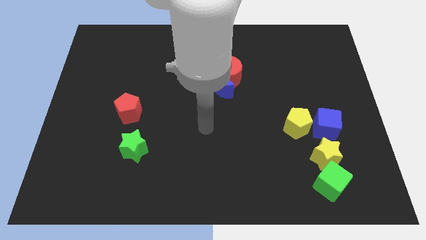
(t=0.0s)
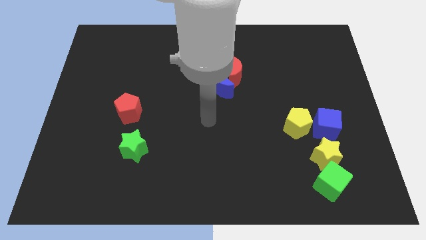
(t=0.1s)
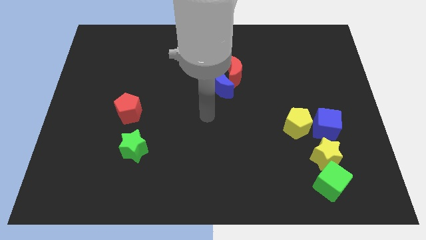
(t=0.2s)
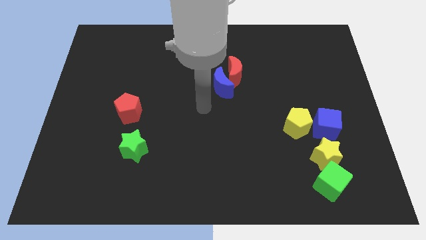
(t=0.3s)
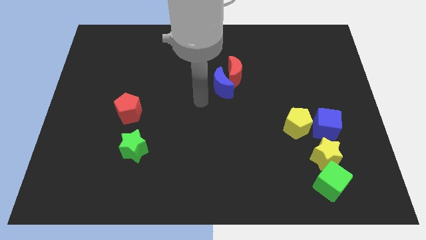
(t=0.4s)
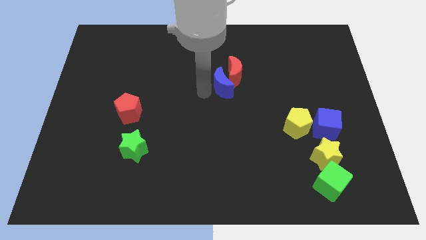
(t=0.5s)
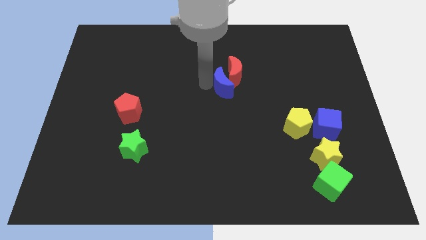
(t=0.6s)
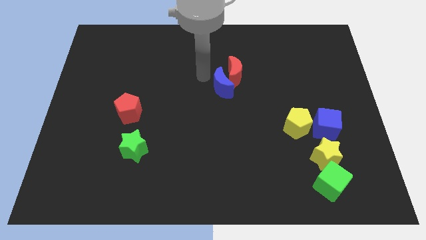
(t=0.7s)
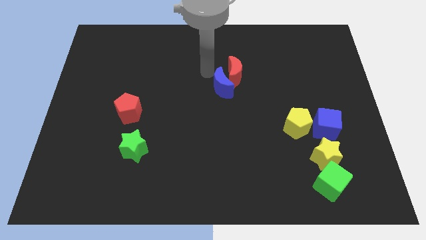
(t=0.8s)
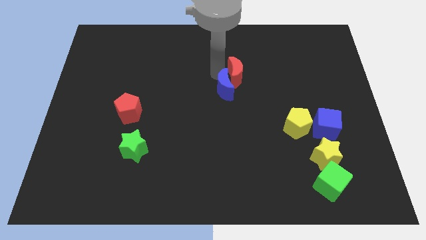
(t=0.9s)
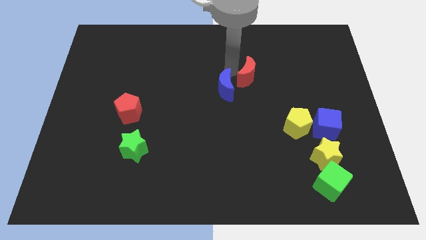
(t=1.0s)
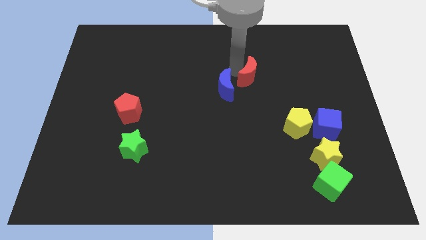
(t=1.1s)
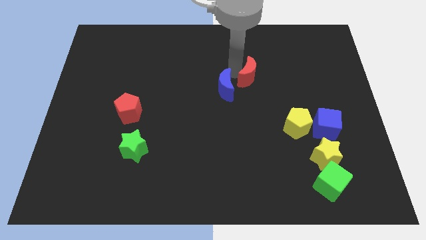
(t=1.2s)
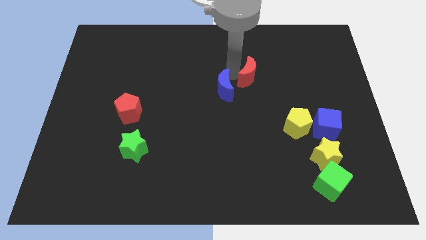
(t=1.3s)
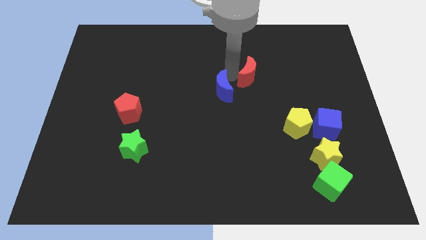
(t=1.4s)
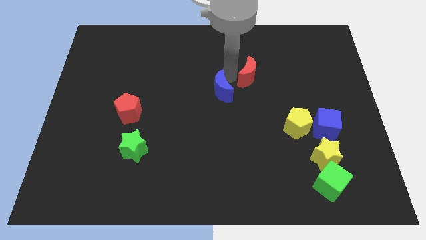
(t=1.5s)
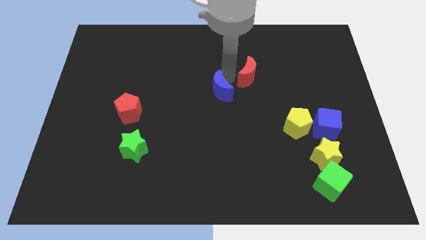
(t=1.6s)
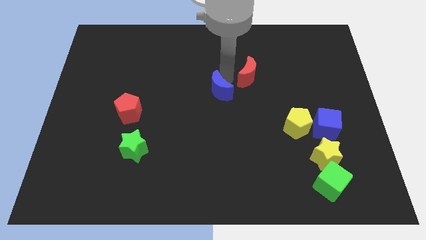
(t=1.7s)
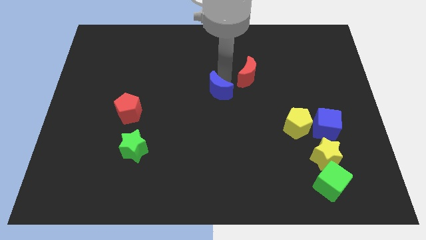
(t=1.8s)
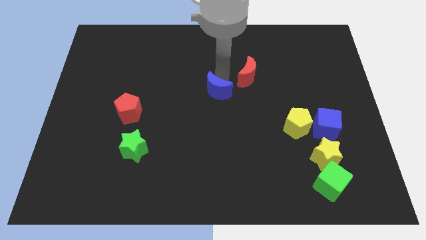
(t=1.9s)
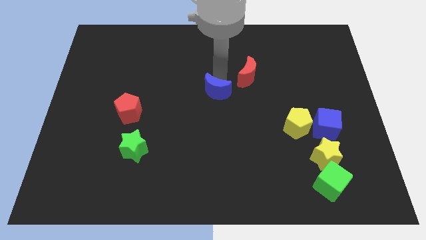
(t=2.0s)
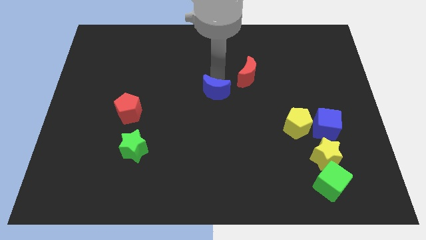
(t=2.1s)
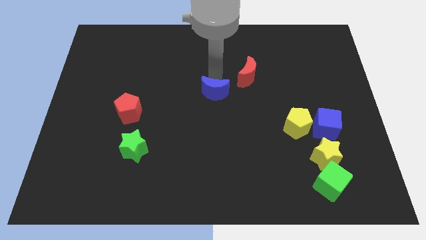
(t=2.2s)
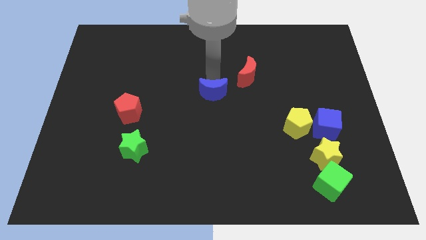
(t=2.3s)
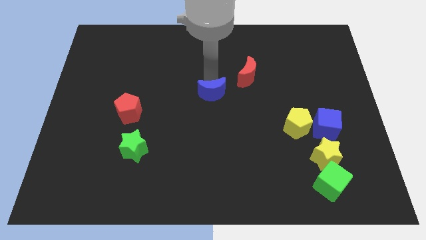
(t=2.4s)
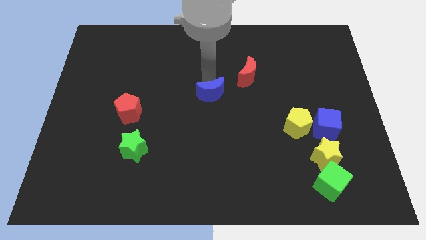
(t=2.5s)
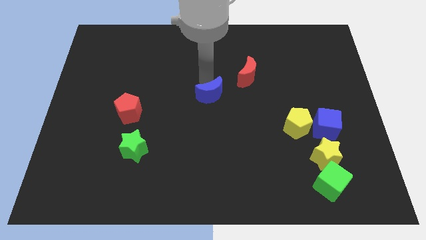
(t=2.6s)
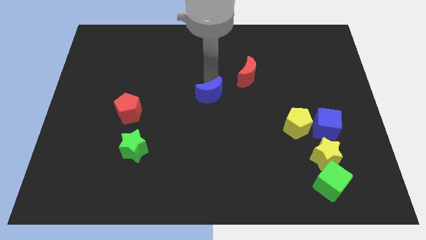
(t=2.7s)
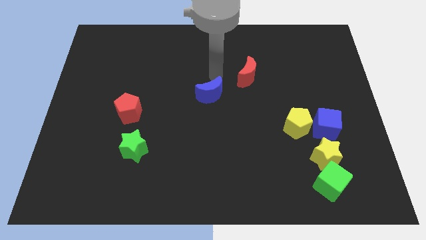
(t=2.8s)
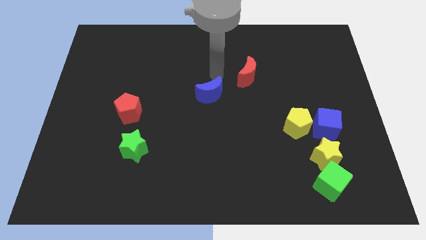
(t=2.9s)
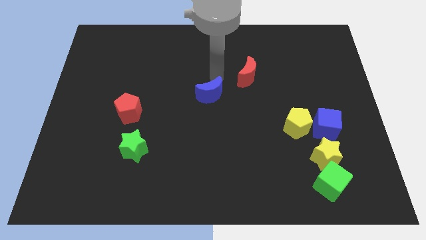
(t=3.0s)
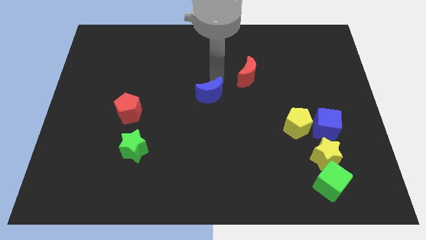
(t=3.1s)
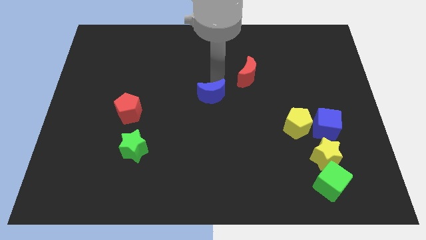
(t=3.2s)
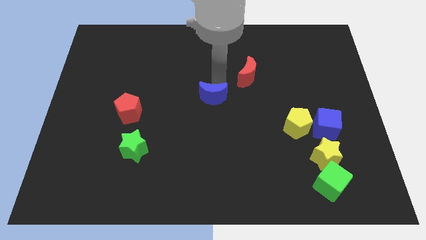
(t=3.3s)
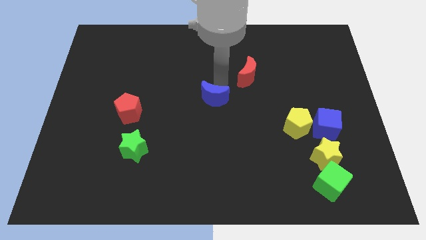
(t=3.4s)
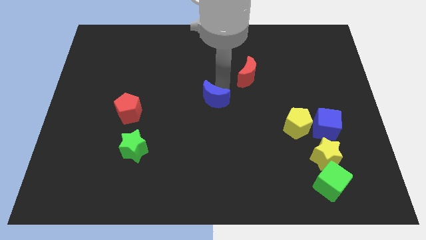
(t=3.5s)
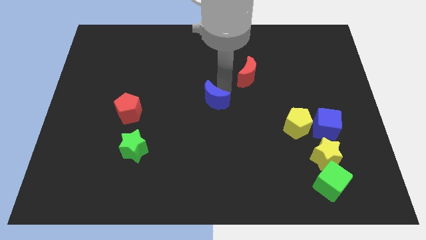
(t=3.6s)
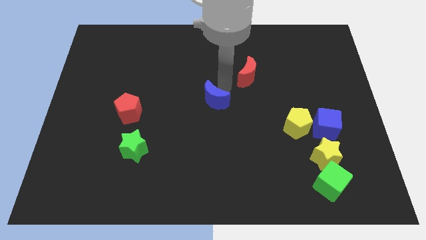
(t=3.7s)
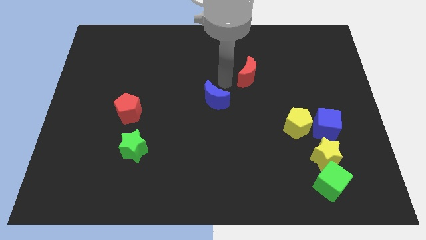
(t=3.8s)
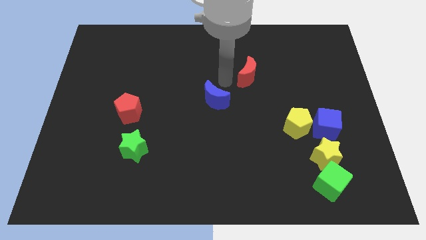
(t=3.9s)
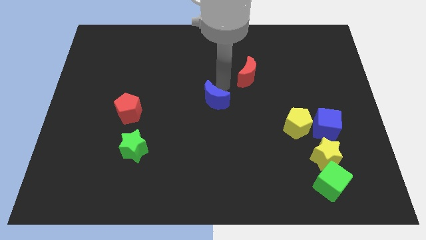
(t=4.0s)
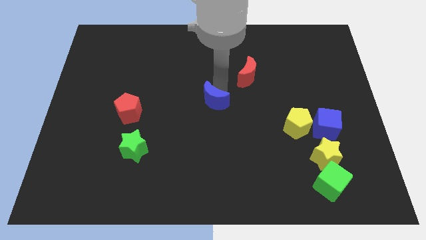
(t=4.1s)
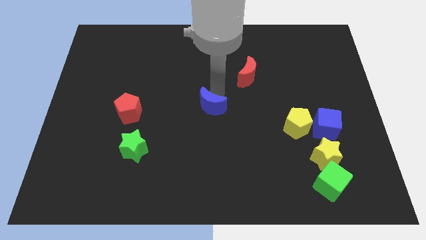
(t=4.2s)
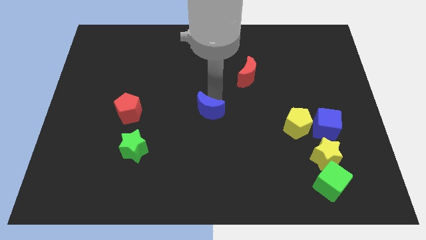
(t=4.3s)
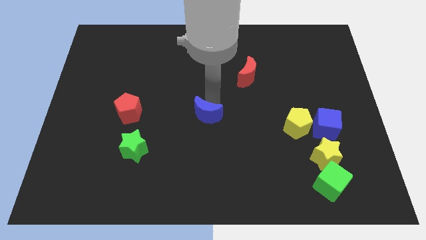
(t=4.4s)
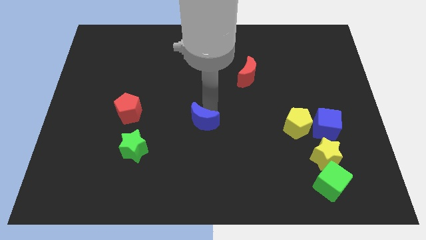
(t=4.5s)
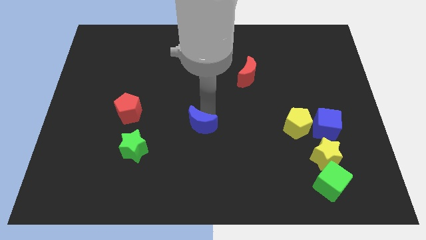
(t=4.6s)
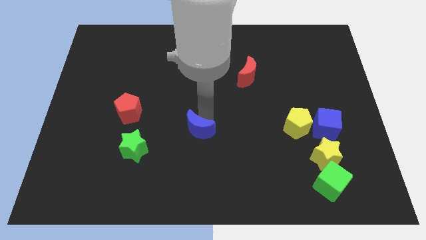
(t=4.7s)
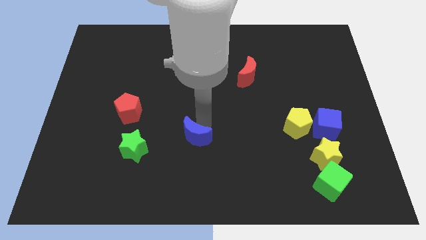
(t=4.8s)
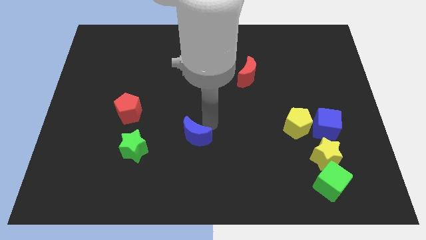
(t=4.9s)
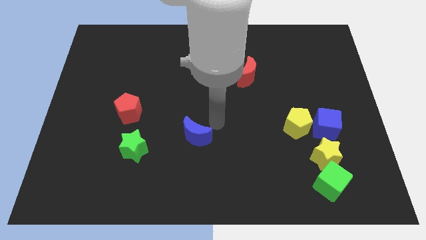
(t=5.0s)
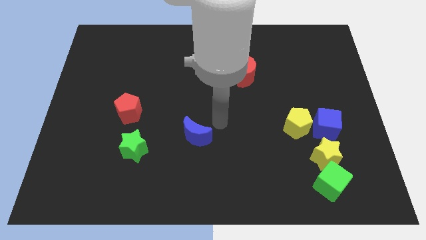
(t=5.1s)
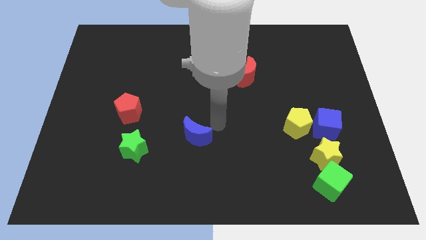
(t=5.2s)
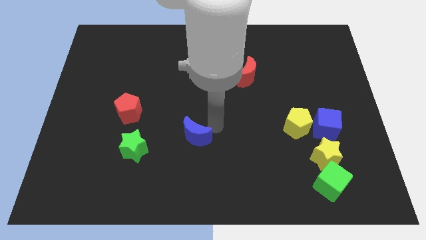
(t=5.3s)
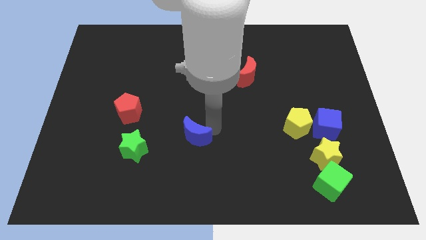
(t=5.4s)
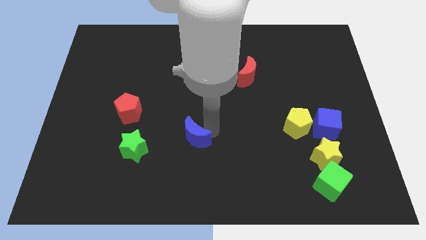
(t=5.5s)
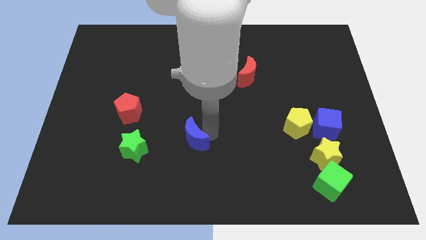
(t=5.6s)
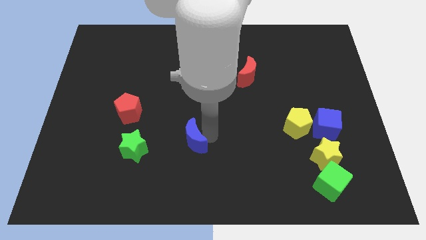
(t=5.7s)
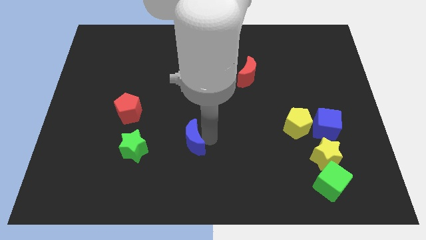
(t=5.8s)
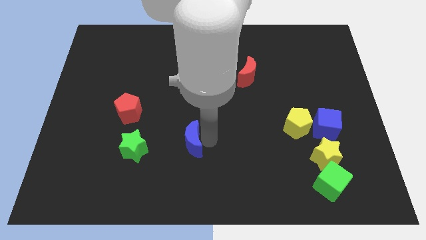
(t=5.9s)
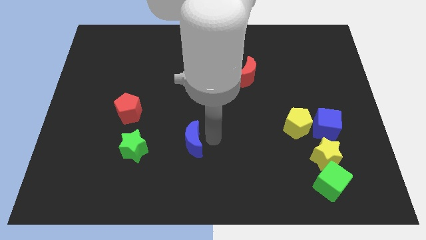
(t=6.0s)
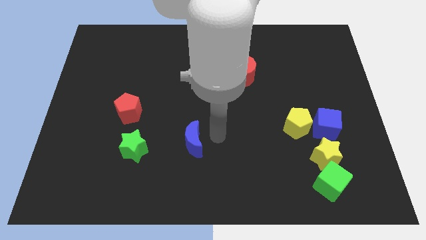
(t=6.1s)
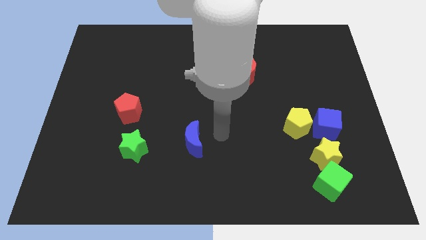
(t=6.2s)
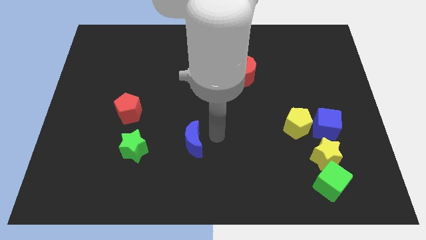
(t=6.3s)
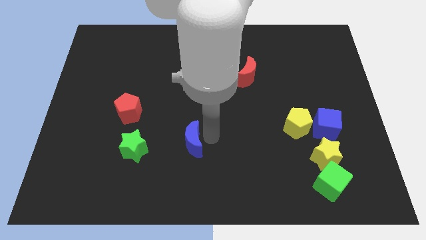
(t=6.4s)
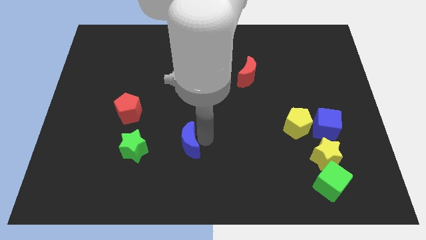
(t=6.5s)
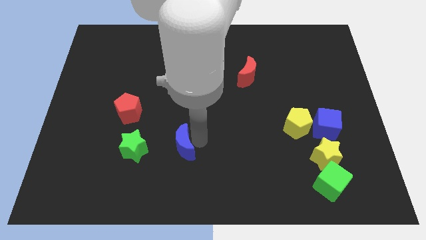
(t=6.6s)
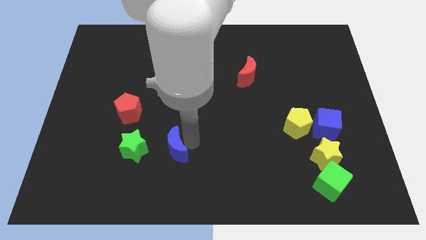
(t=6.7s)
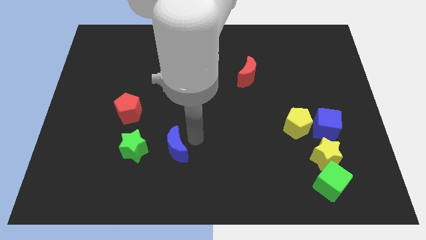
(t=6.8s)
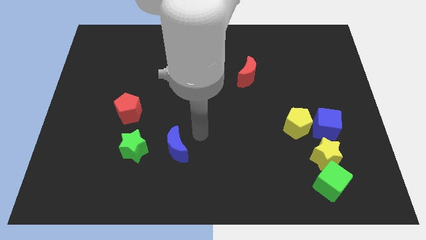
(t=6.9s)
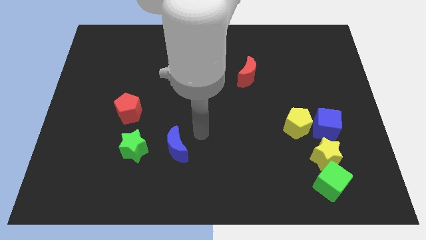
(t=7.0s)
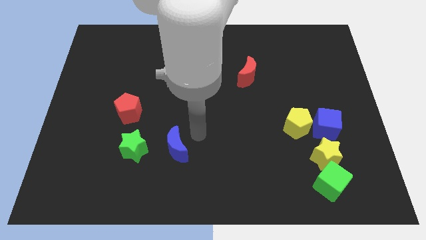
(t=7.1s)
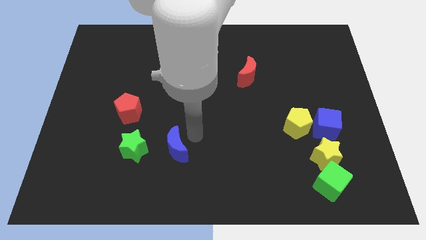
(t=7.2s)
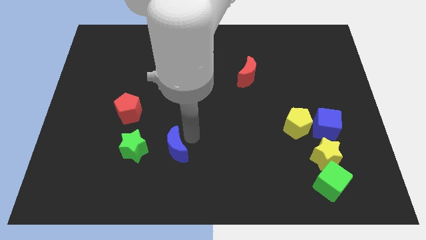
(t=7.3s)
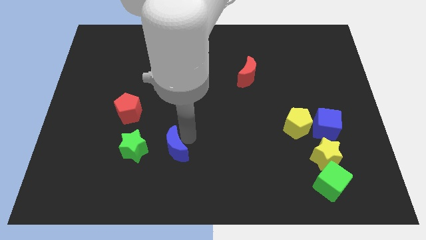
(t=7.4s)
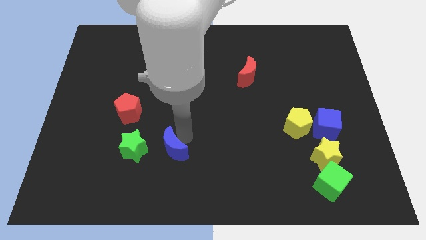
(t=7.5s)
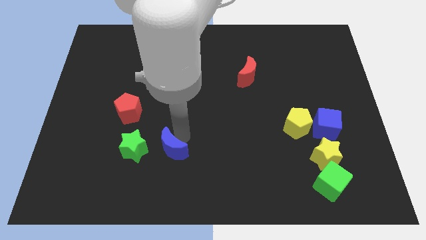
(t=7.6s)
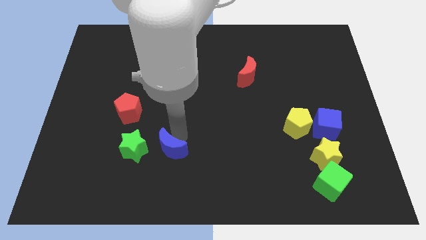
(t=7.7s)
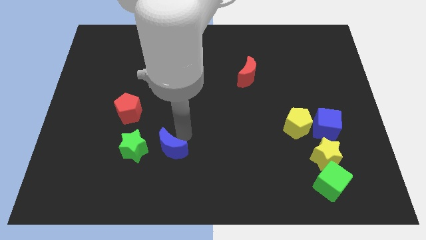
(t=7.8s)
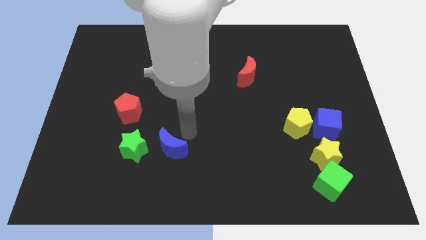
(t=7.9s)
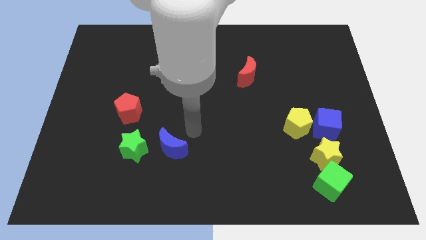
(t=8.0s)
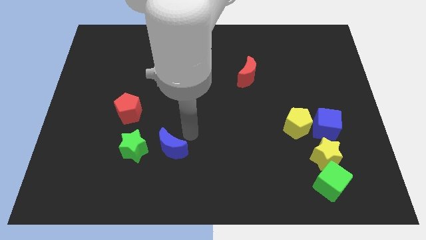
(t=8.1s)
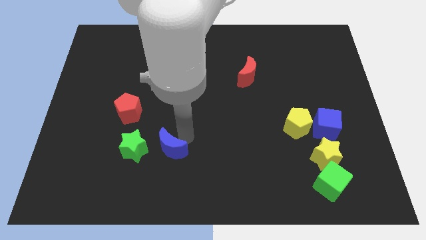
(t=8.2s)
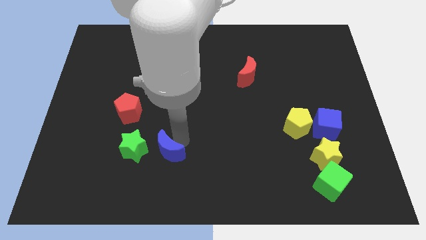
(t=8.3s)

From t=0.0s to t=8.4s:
push the blue moon downwards and then to the left

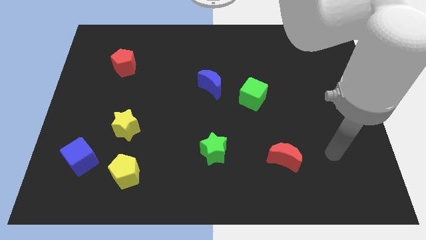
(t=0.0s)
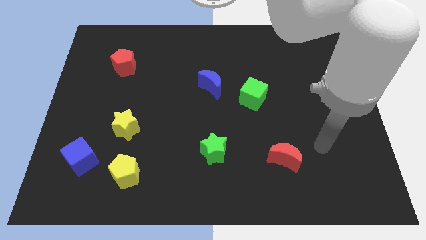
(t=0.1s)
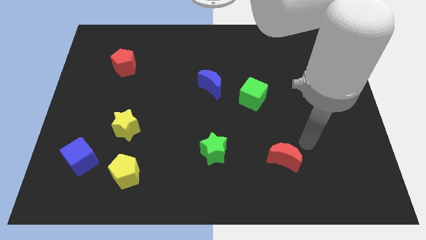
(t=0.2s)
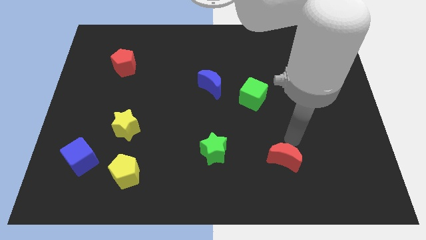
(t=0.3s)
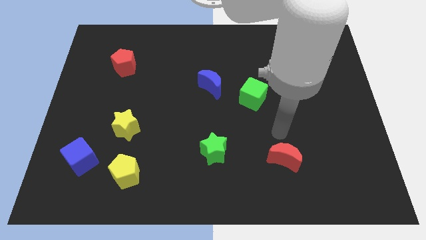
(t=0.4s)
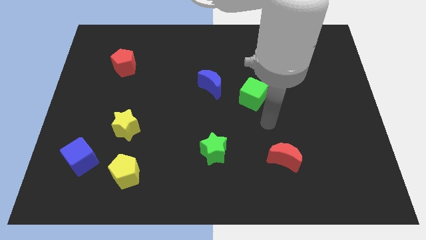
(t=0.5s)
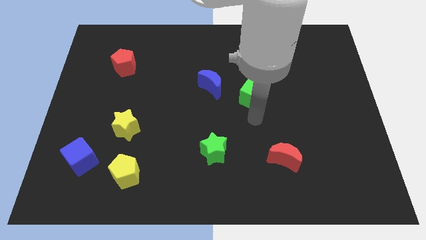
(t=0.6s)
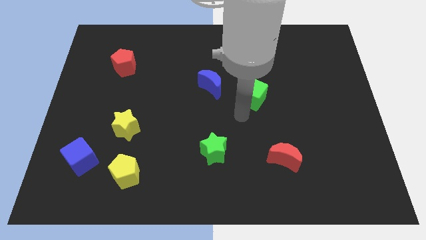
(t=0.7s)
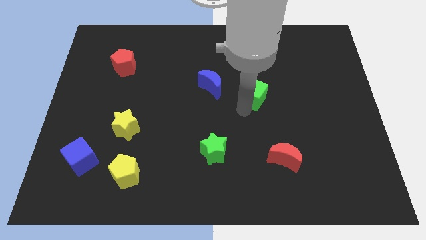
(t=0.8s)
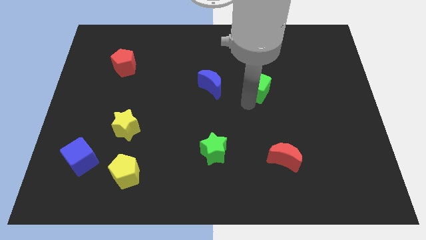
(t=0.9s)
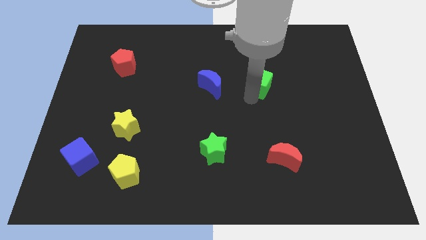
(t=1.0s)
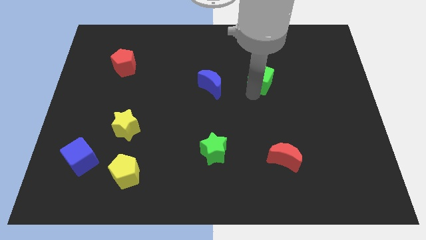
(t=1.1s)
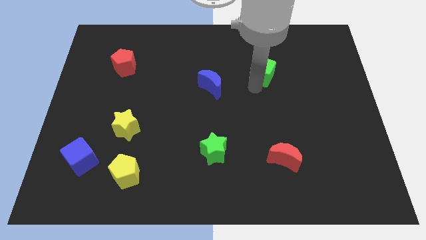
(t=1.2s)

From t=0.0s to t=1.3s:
push the green cube a little bit diagonally upwards and to the right
